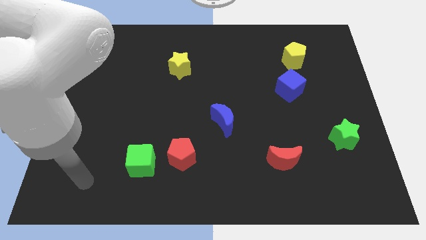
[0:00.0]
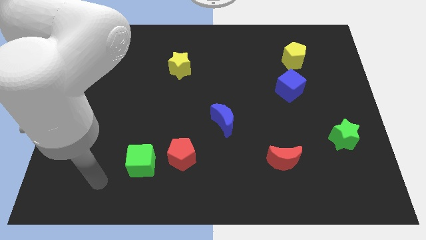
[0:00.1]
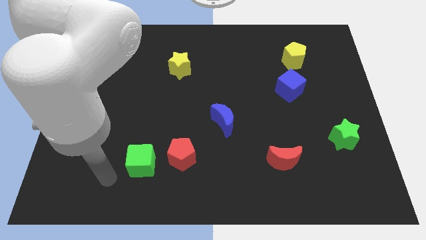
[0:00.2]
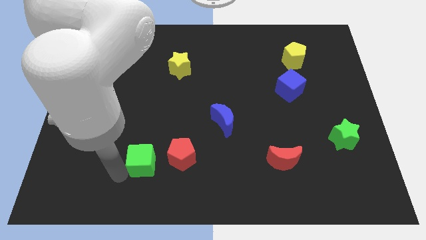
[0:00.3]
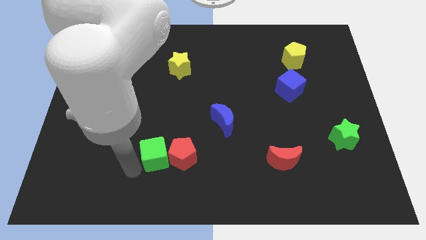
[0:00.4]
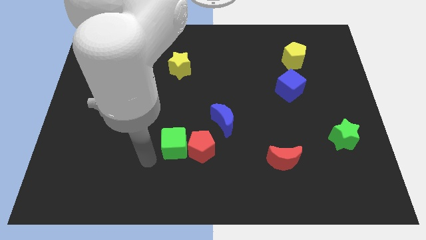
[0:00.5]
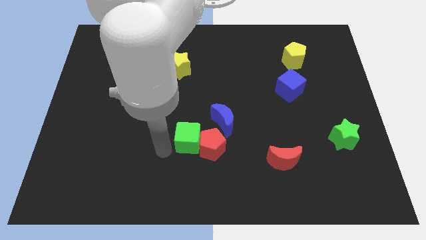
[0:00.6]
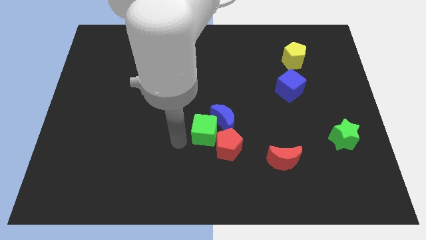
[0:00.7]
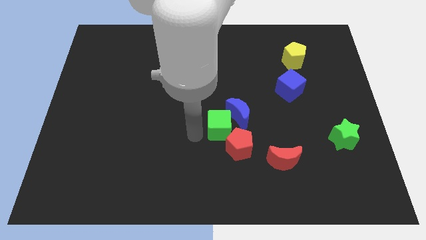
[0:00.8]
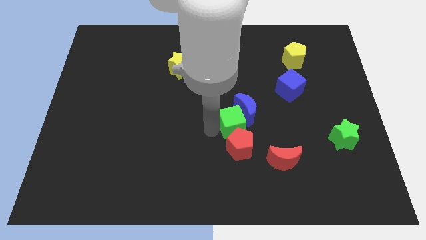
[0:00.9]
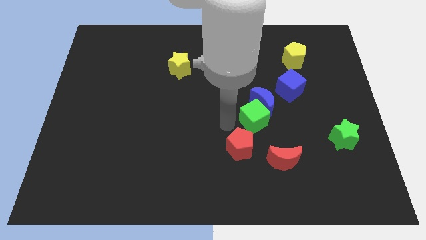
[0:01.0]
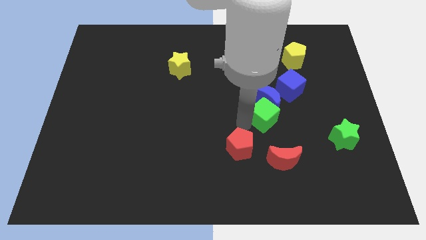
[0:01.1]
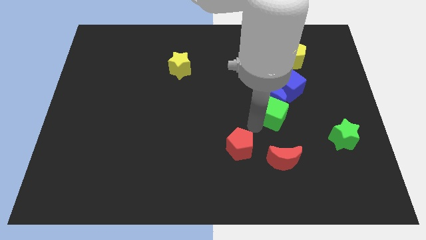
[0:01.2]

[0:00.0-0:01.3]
pull the red pentagon apart from the green cube

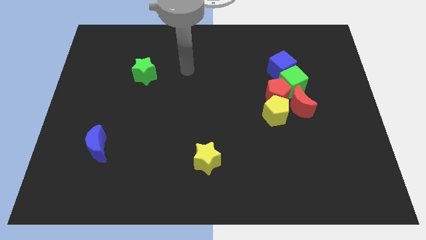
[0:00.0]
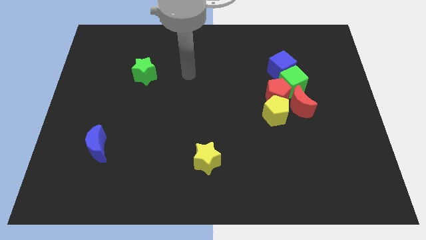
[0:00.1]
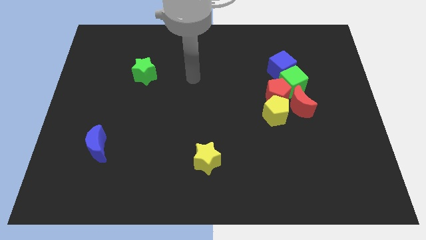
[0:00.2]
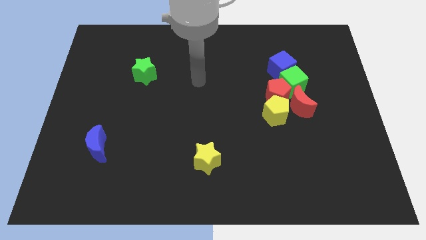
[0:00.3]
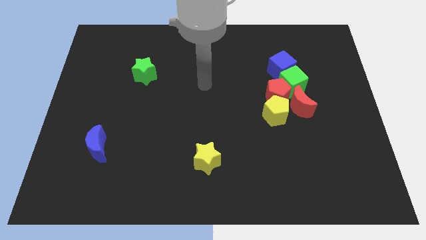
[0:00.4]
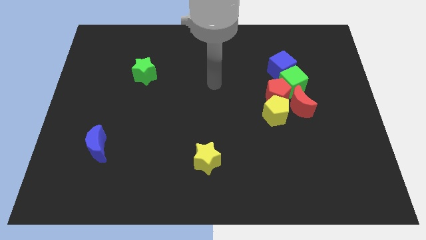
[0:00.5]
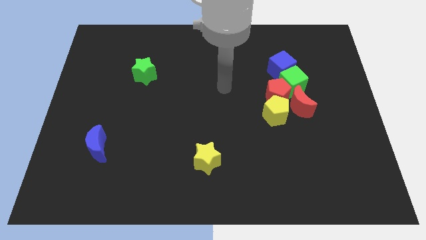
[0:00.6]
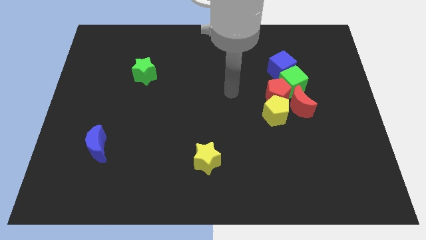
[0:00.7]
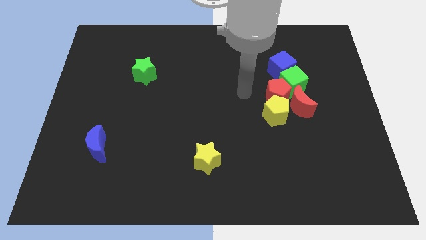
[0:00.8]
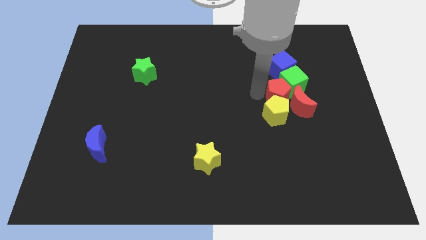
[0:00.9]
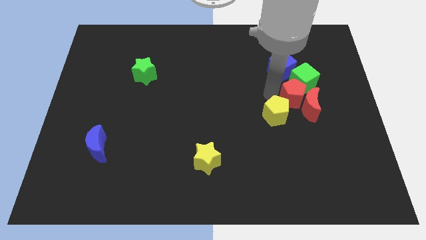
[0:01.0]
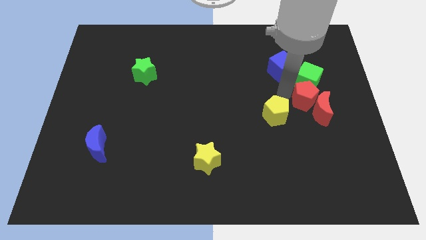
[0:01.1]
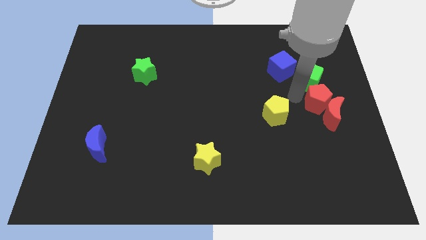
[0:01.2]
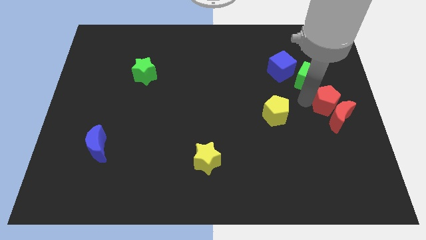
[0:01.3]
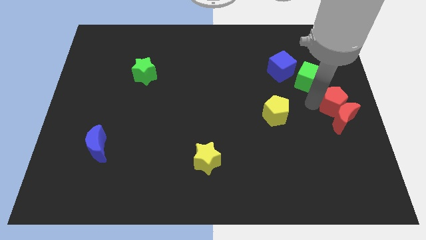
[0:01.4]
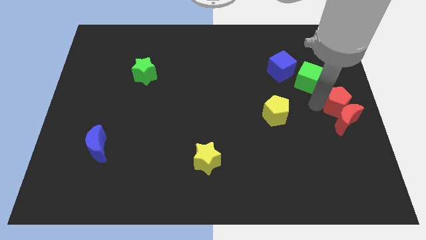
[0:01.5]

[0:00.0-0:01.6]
move the red moon away from the group

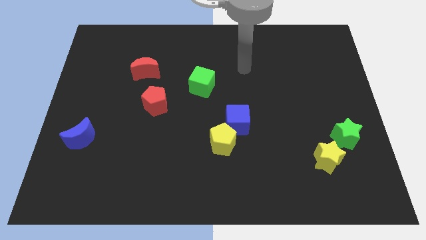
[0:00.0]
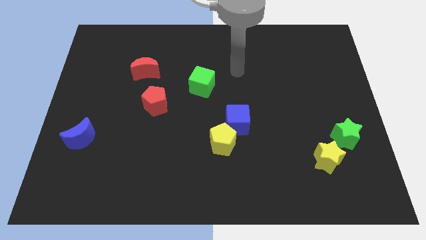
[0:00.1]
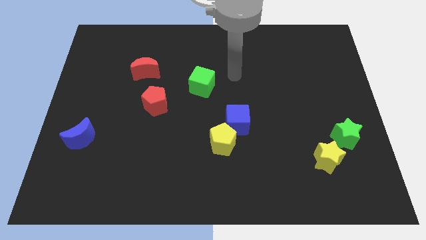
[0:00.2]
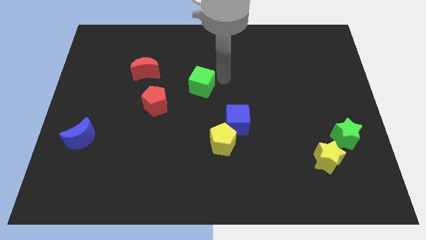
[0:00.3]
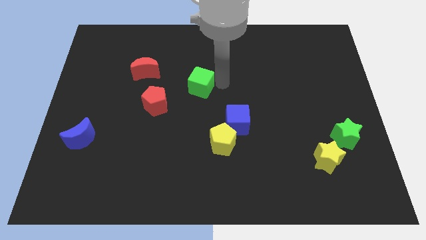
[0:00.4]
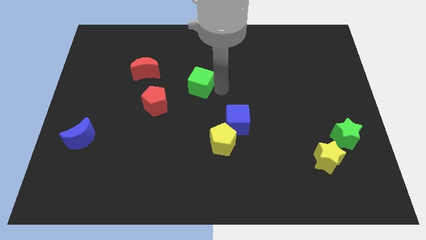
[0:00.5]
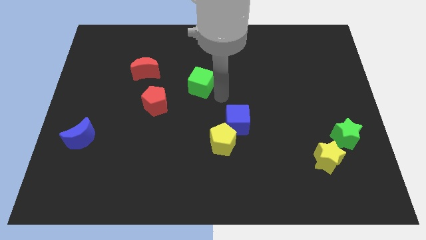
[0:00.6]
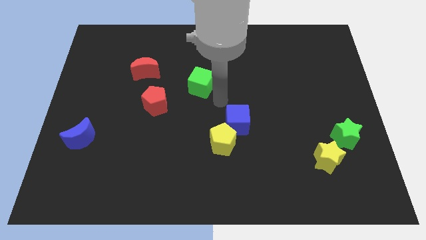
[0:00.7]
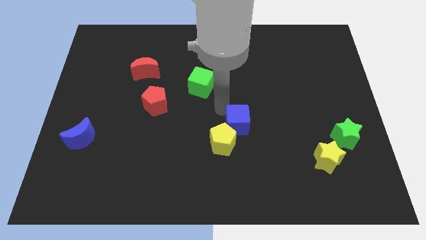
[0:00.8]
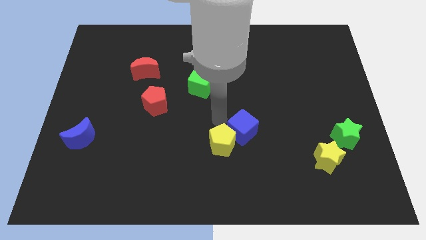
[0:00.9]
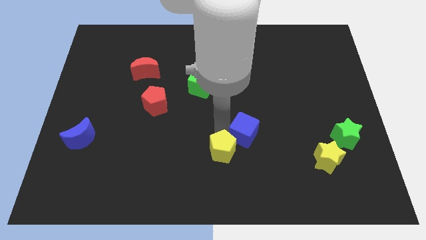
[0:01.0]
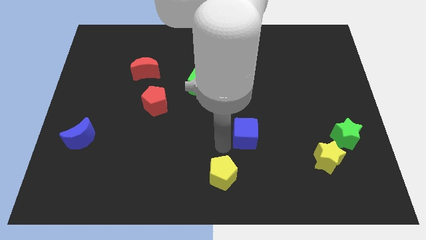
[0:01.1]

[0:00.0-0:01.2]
pull the blue cube apart from the yellow pentagon

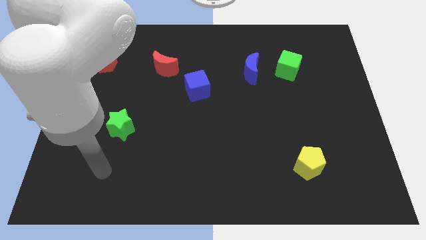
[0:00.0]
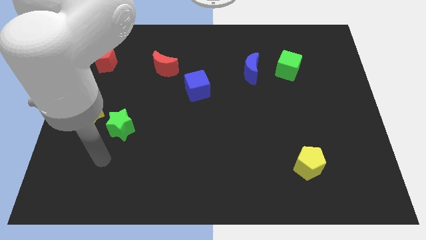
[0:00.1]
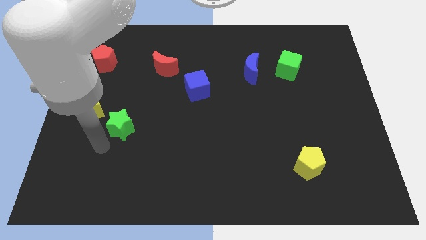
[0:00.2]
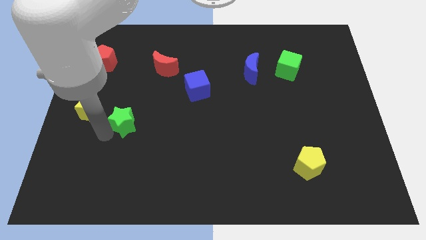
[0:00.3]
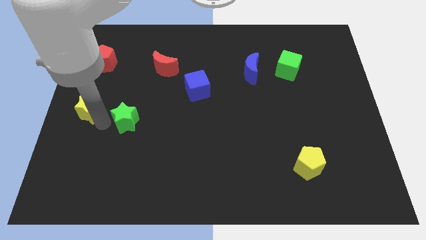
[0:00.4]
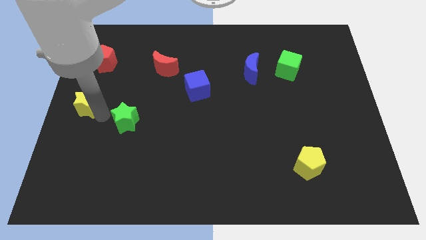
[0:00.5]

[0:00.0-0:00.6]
separate the green star from the yellow star

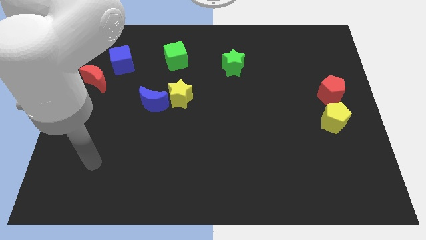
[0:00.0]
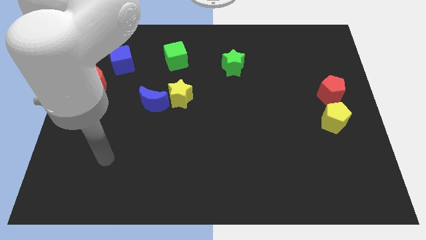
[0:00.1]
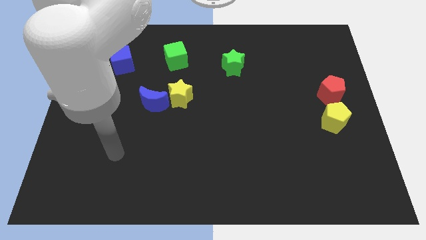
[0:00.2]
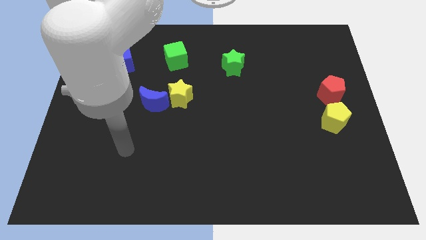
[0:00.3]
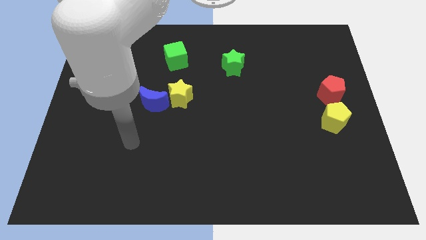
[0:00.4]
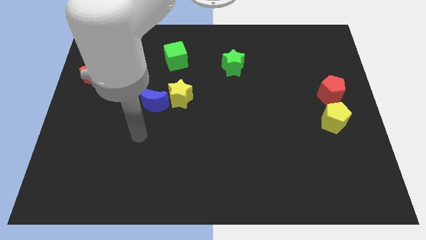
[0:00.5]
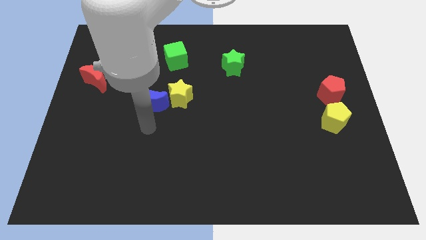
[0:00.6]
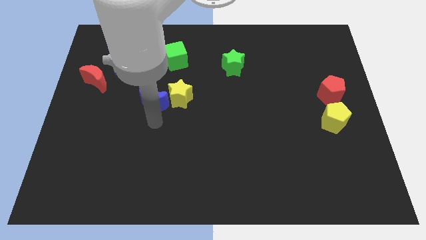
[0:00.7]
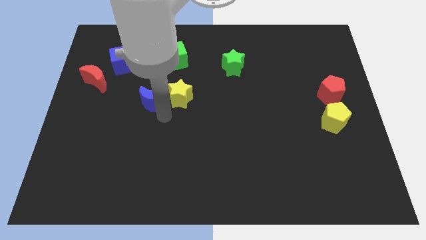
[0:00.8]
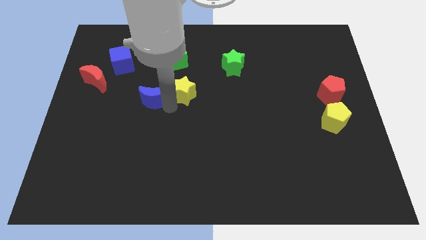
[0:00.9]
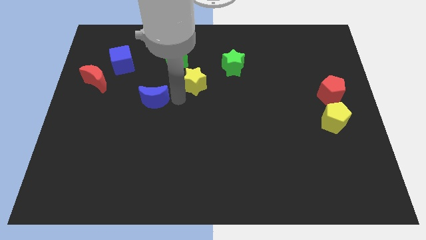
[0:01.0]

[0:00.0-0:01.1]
move the blue moon away from the yellow star

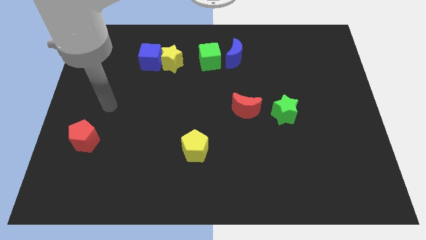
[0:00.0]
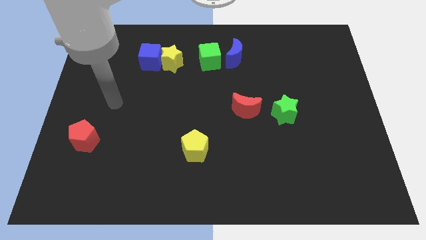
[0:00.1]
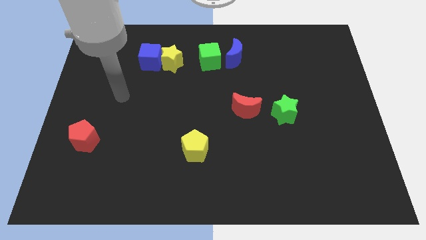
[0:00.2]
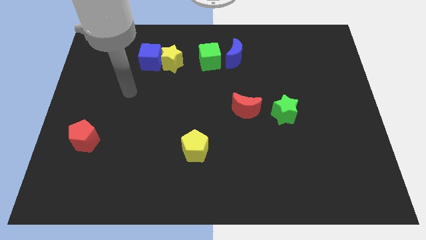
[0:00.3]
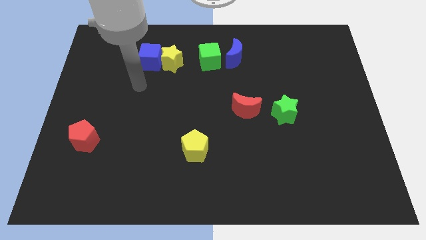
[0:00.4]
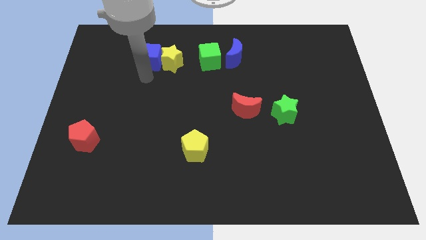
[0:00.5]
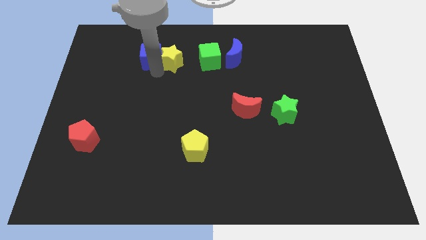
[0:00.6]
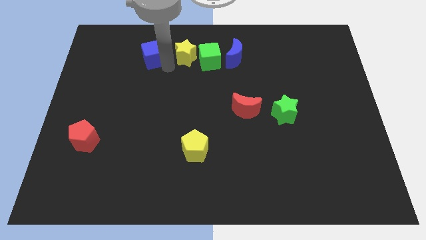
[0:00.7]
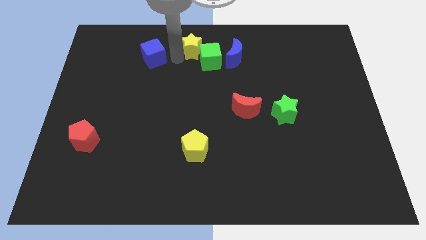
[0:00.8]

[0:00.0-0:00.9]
pull the blue cube apart from the yellow star

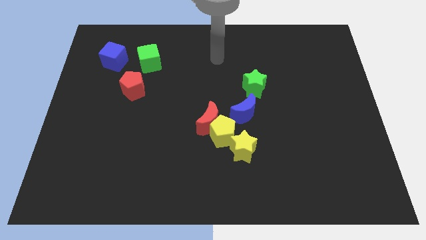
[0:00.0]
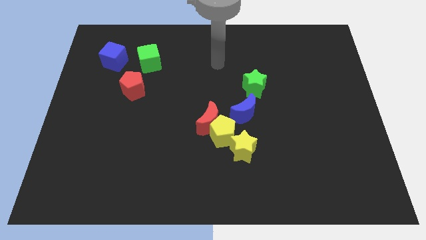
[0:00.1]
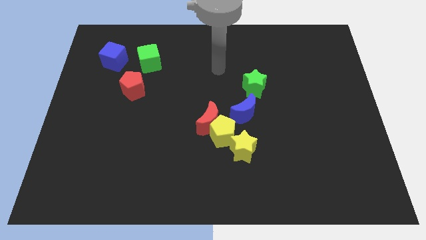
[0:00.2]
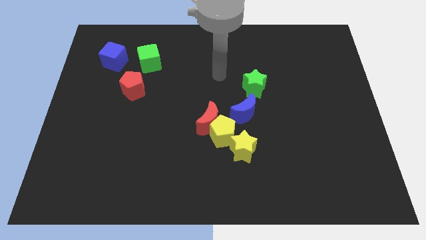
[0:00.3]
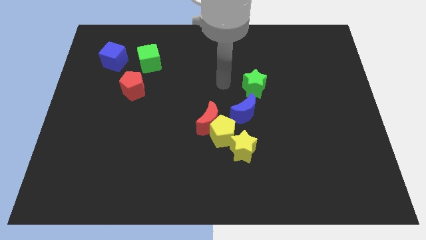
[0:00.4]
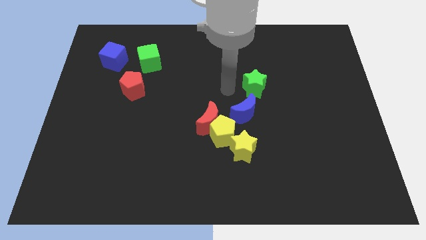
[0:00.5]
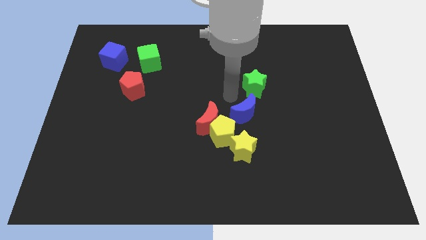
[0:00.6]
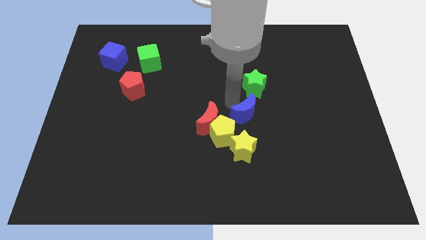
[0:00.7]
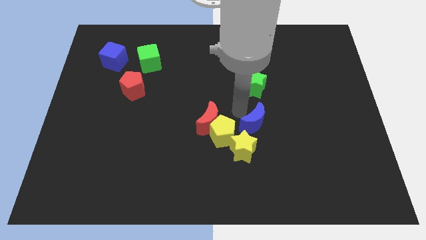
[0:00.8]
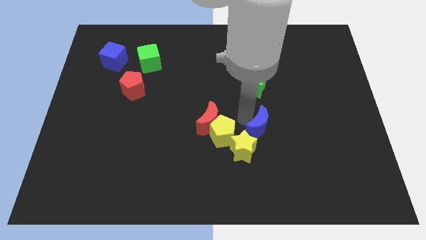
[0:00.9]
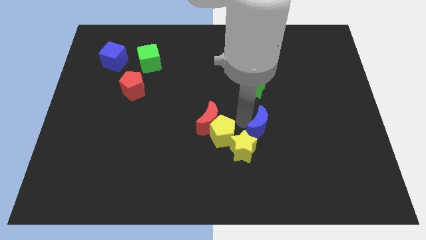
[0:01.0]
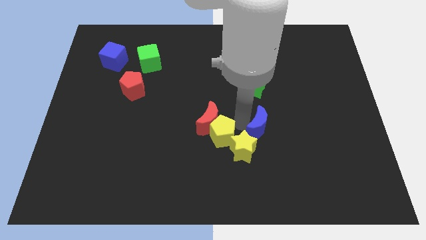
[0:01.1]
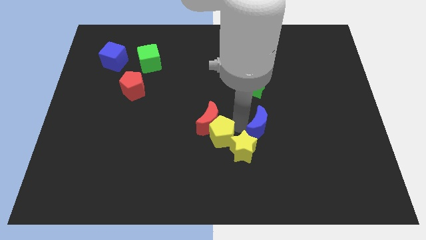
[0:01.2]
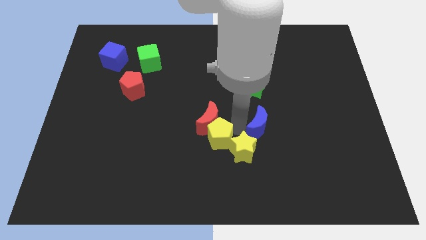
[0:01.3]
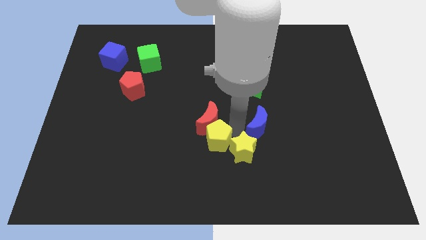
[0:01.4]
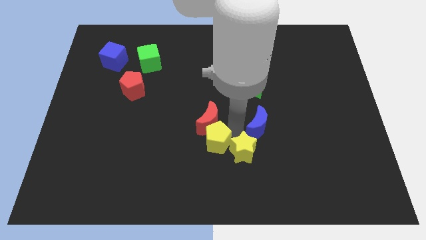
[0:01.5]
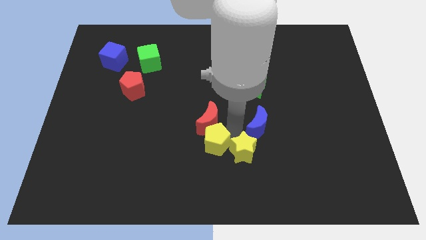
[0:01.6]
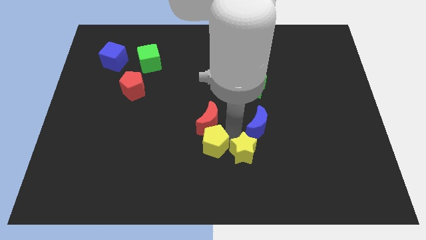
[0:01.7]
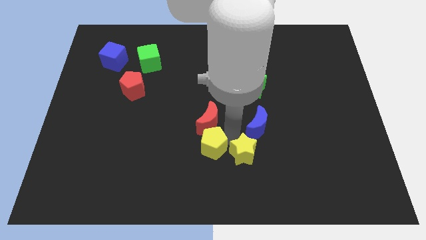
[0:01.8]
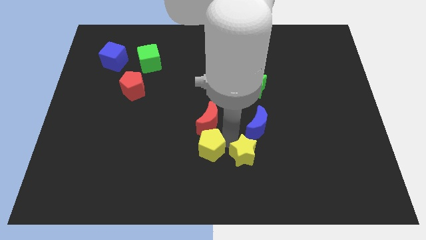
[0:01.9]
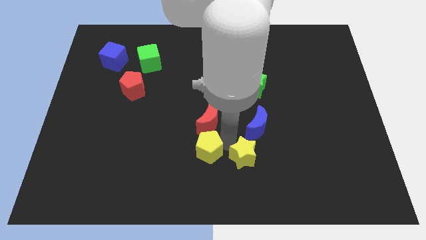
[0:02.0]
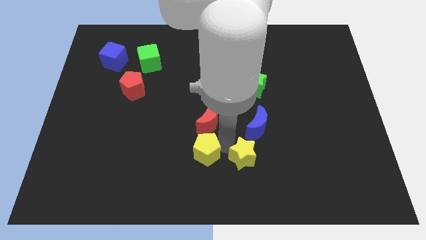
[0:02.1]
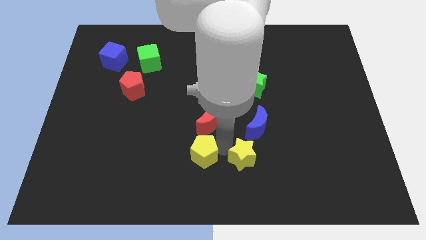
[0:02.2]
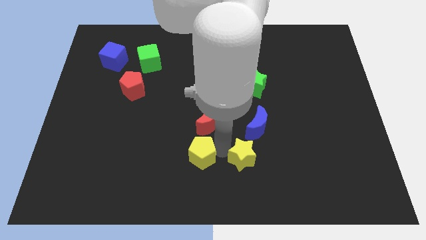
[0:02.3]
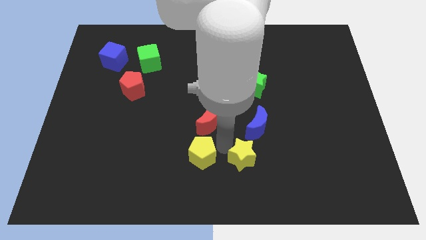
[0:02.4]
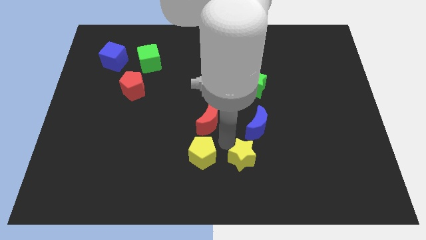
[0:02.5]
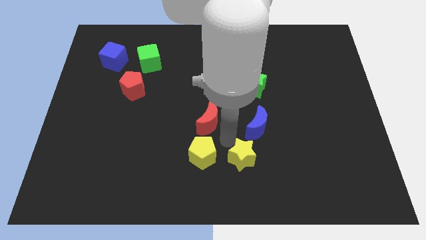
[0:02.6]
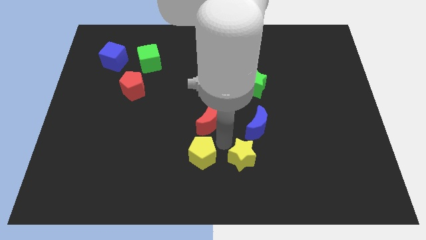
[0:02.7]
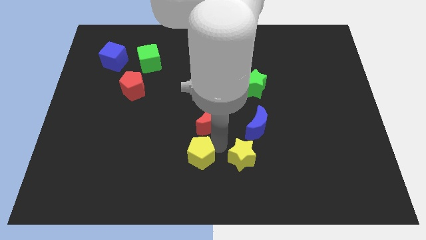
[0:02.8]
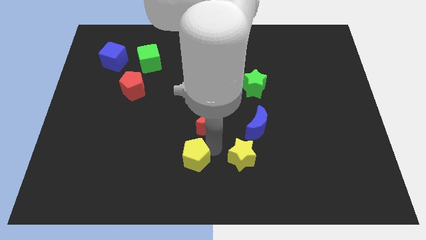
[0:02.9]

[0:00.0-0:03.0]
move the yellow pentagon away from the clump
